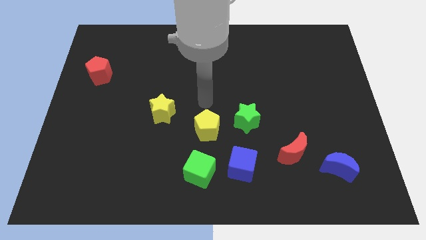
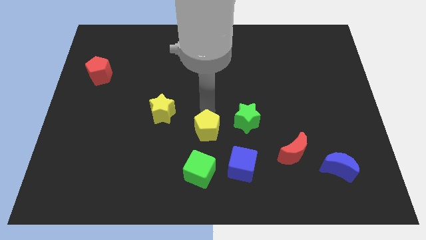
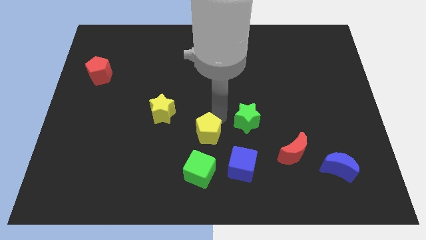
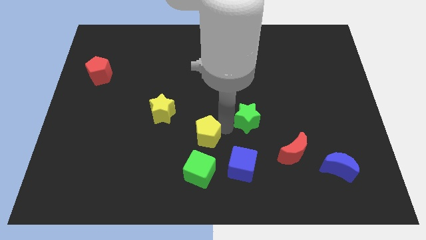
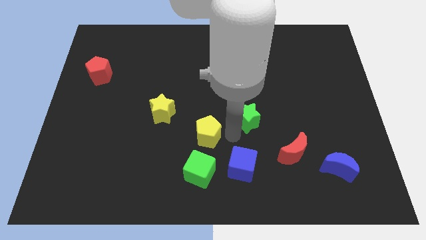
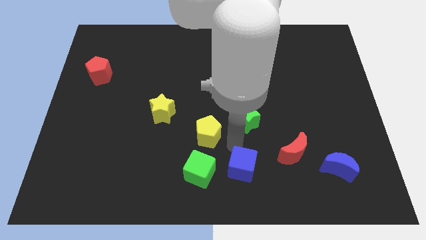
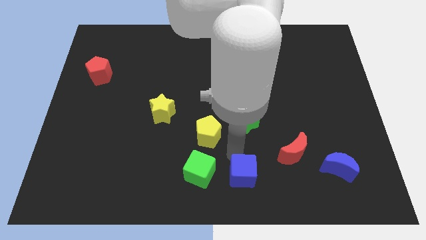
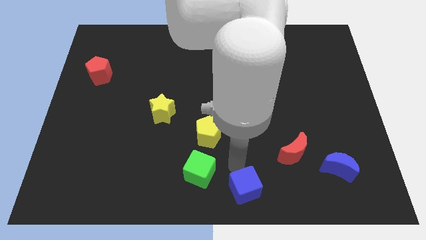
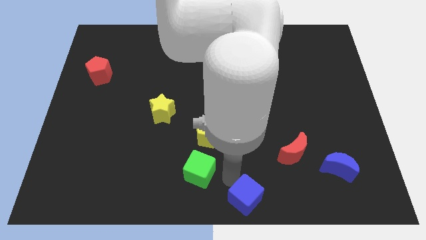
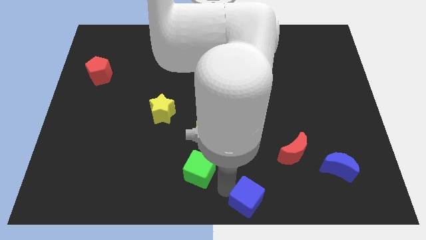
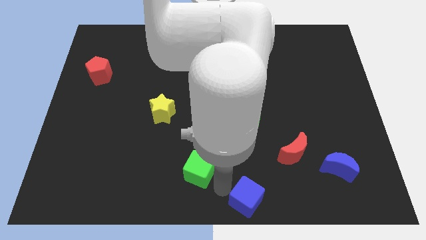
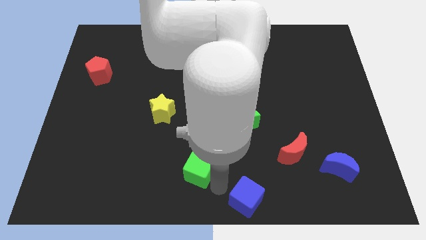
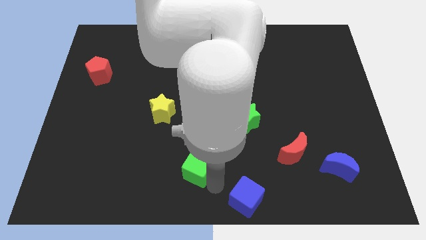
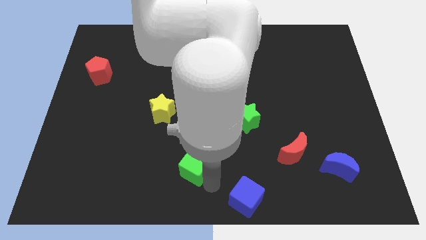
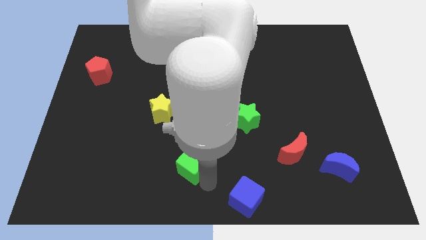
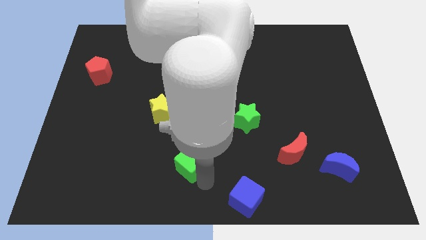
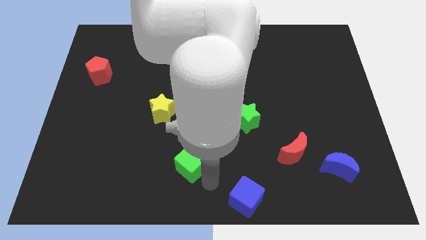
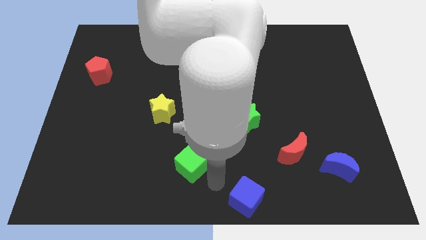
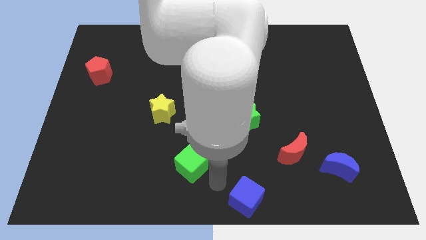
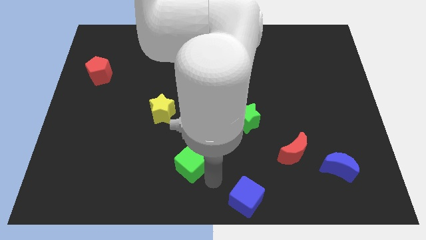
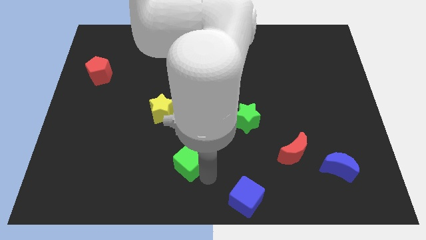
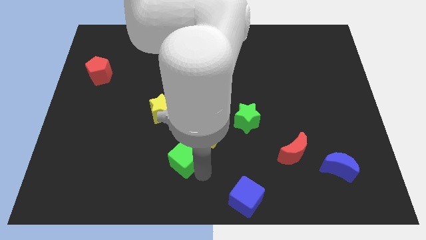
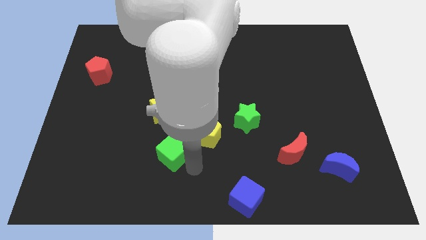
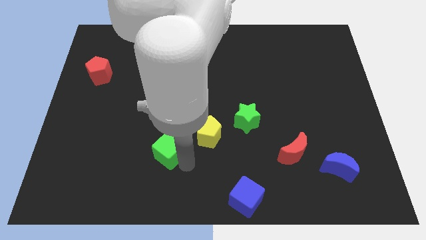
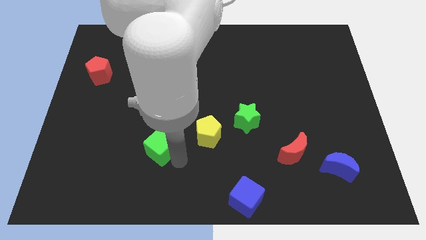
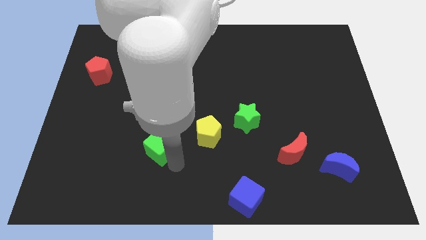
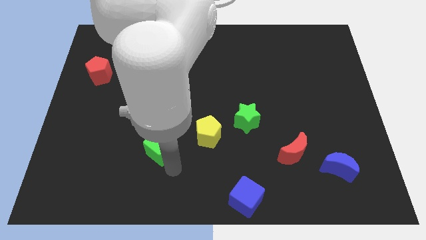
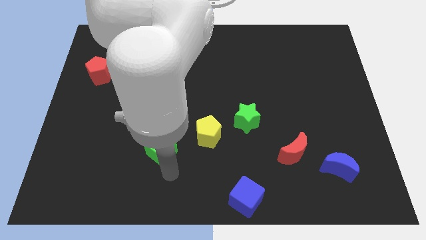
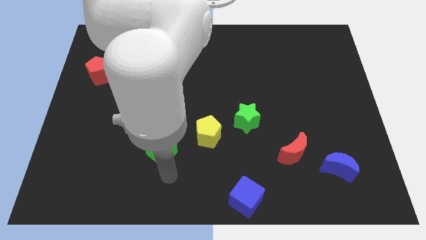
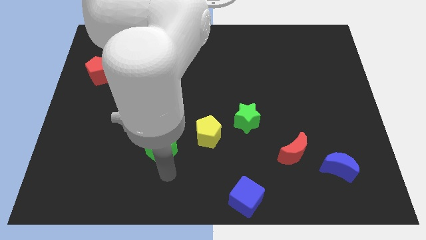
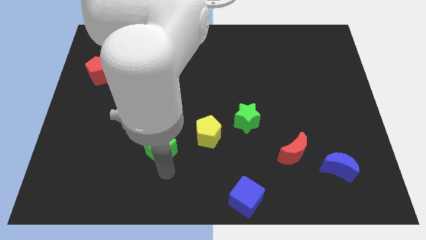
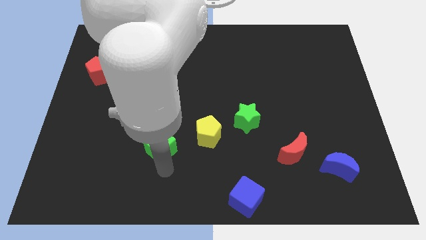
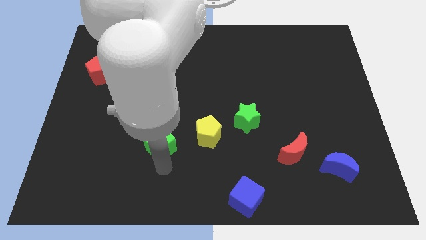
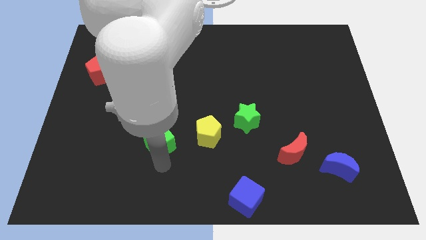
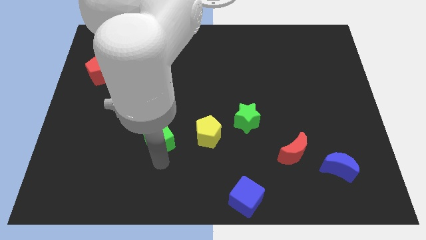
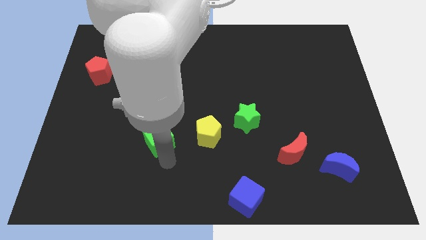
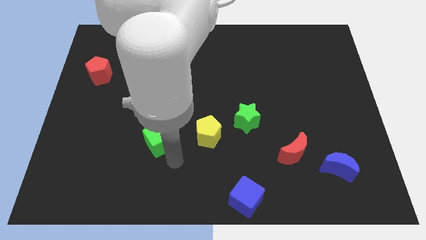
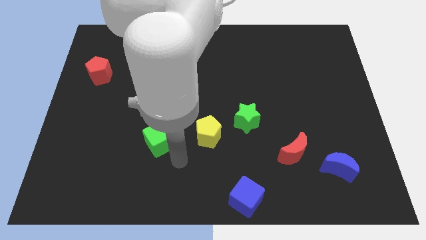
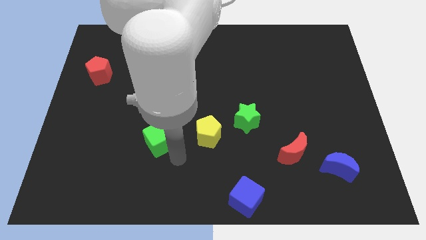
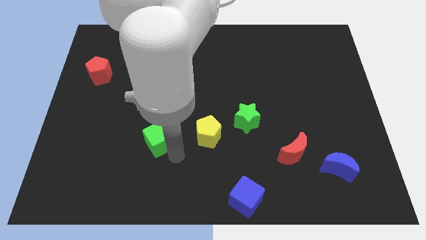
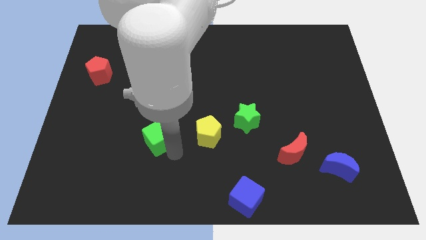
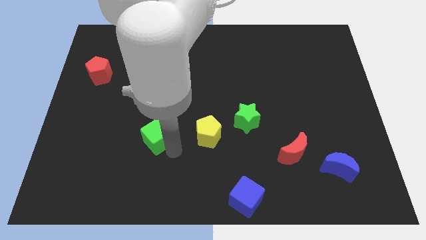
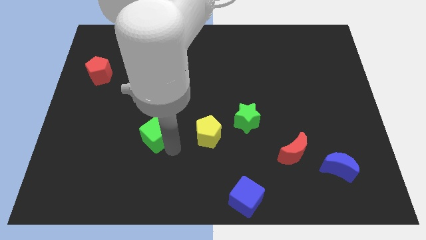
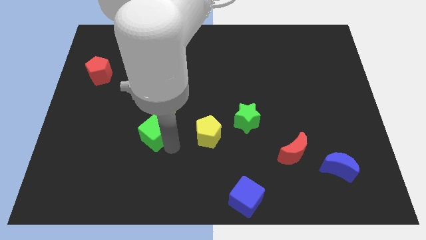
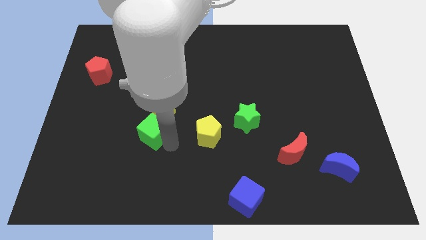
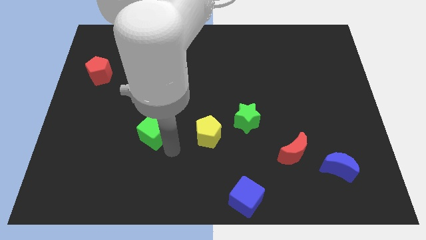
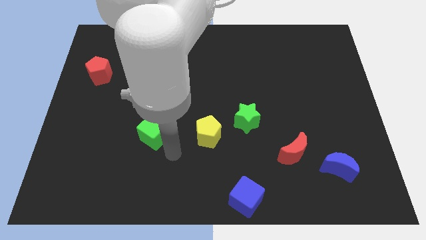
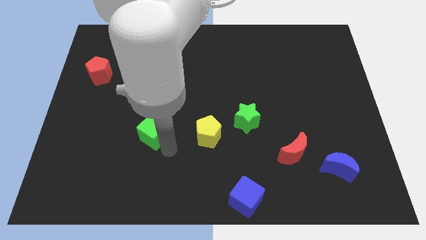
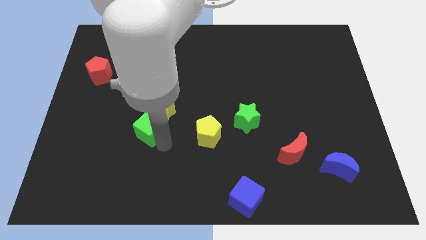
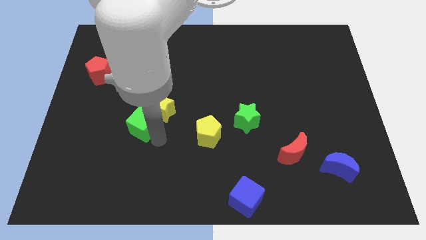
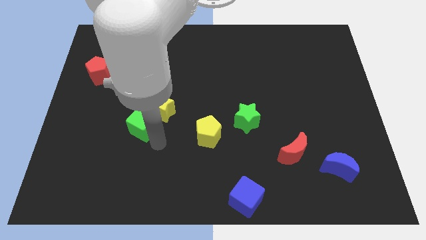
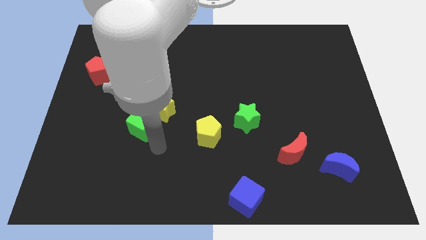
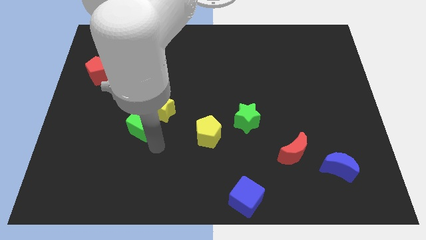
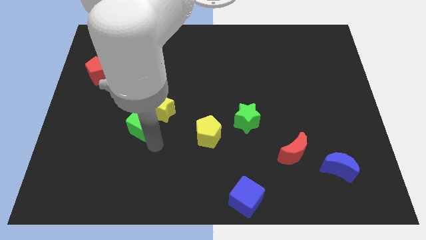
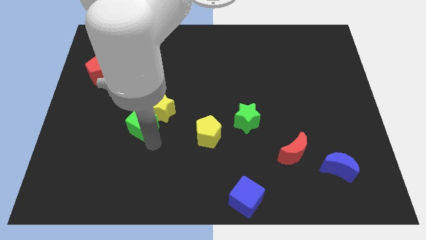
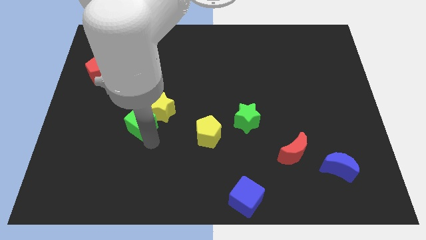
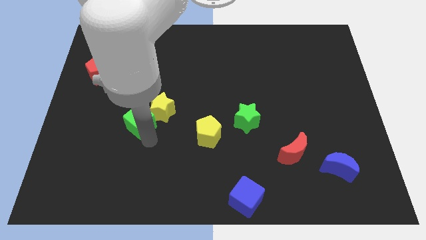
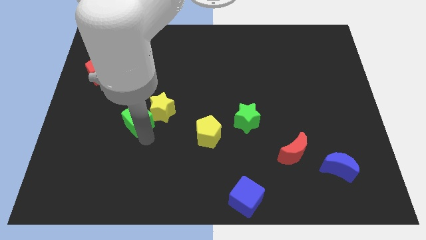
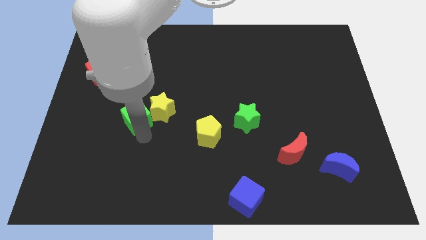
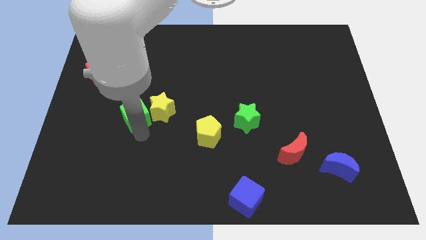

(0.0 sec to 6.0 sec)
slide the green cube upwards and then to the left

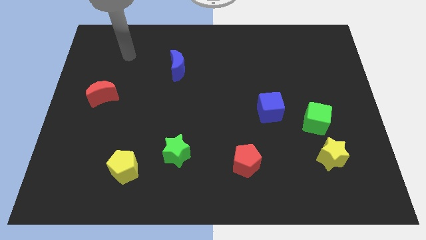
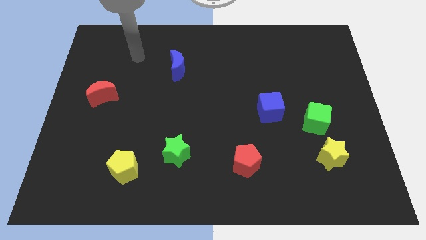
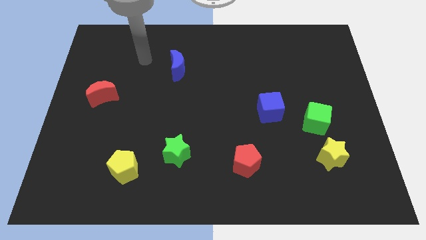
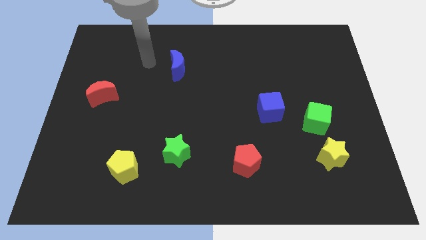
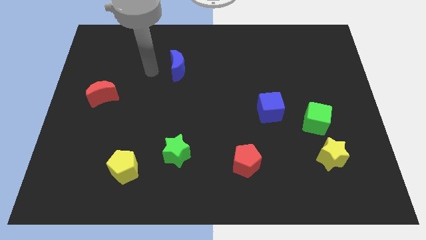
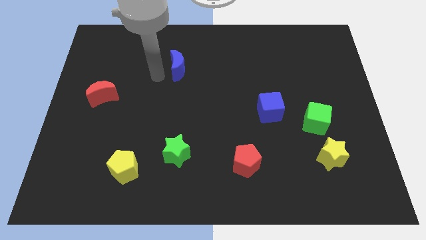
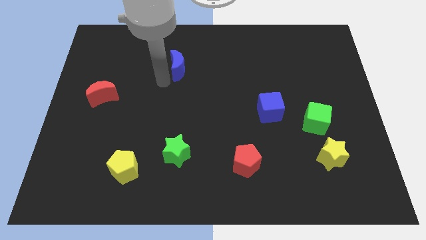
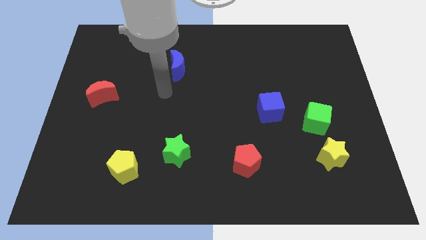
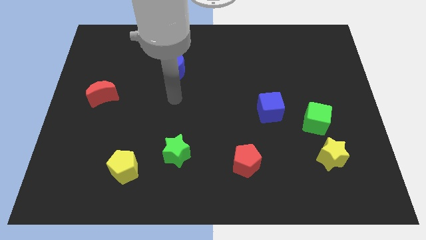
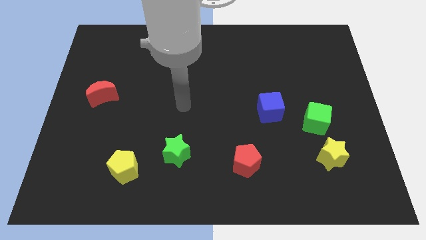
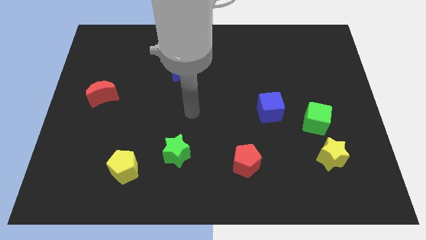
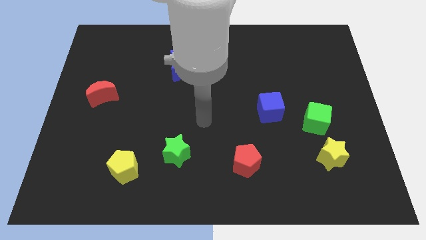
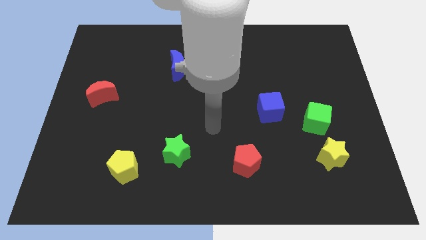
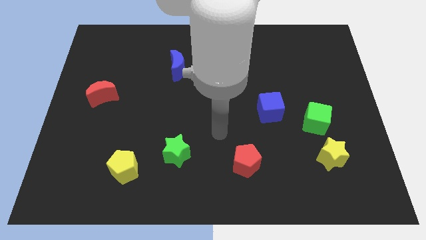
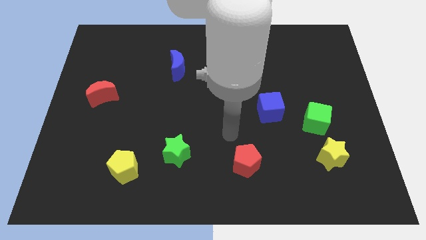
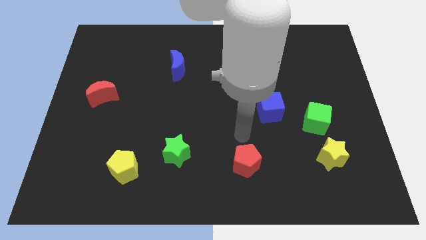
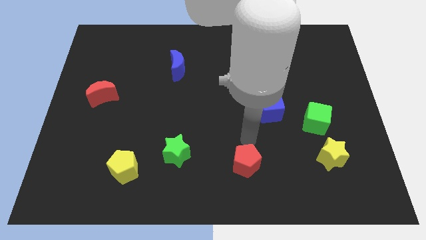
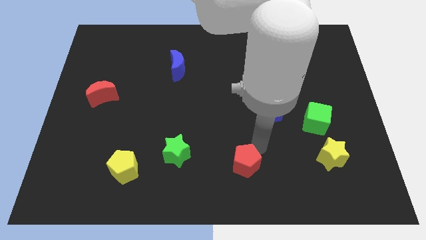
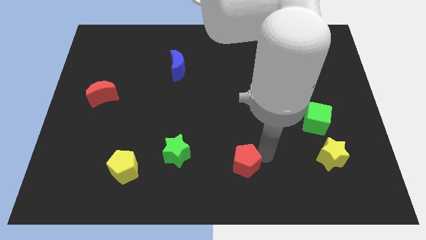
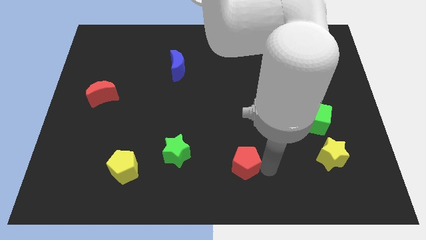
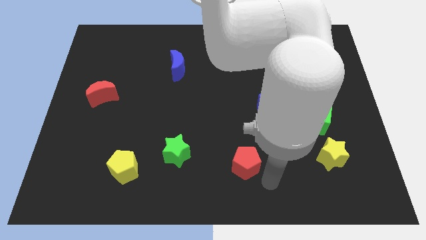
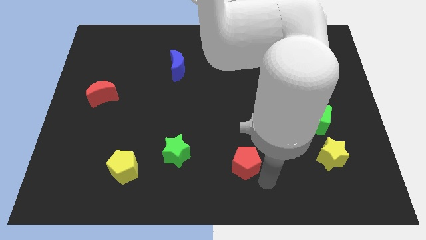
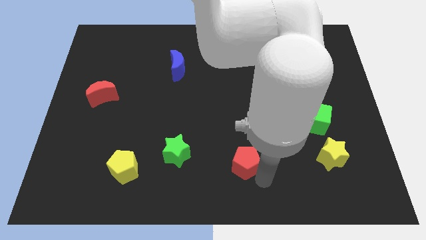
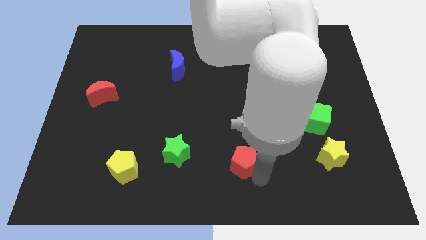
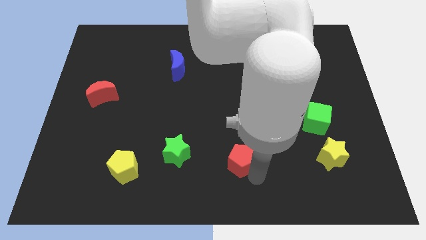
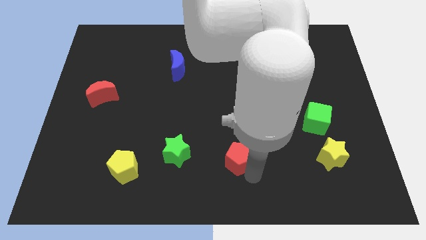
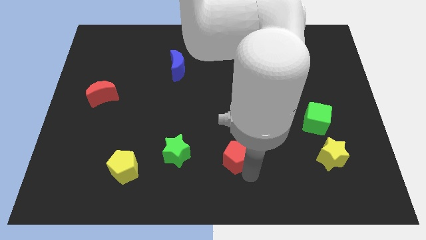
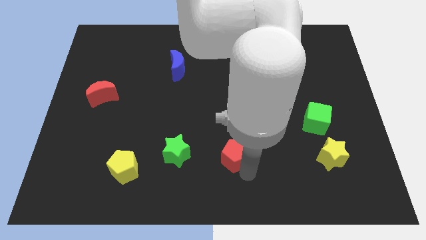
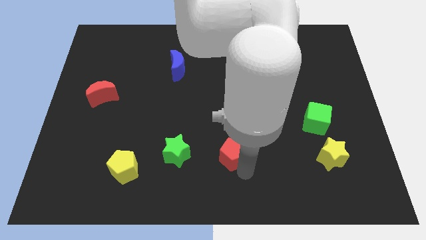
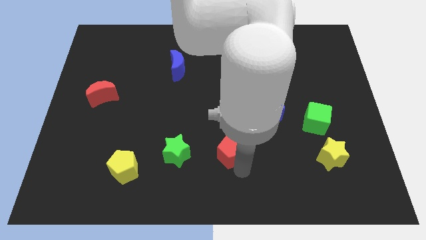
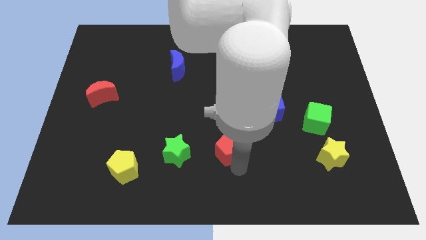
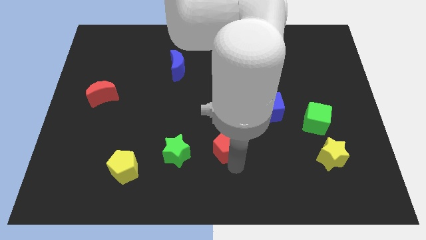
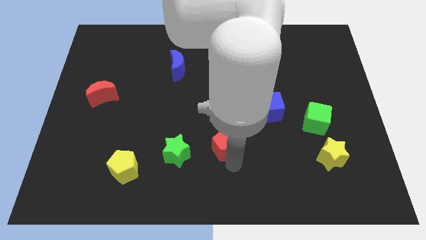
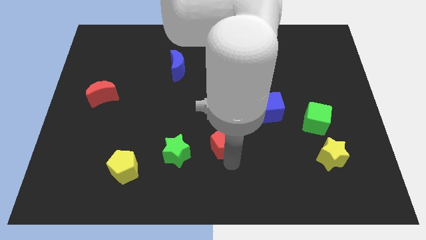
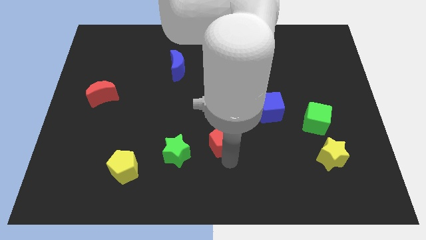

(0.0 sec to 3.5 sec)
slide the red pentagon up and then to the left a bit
